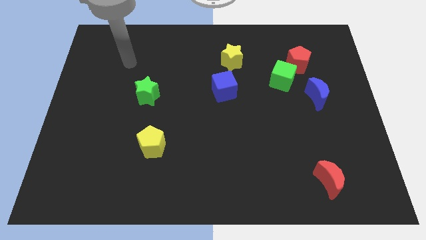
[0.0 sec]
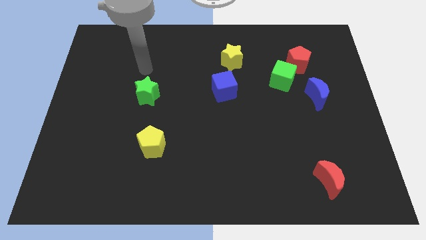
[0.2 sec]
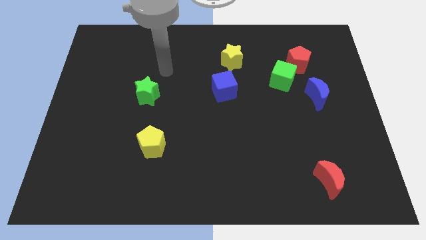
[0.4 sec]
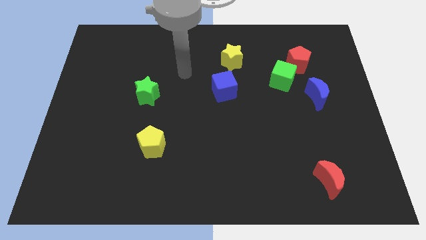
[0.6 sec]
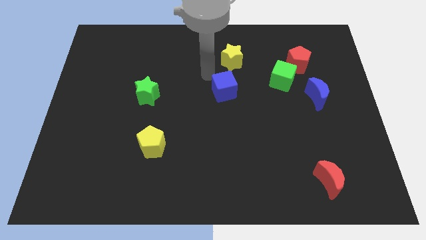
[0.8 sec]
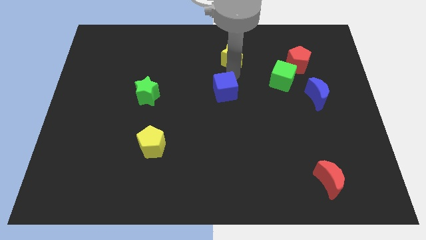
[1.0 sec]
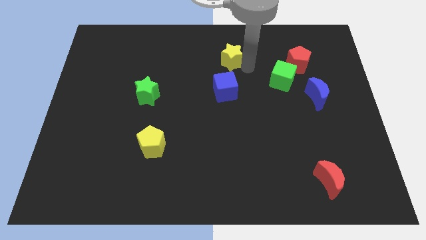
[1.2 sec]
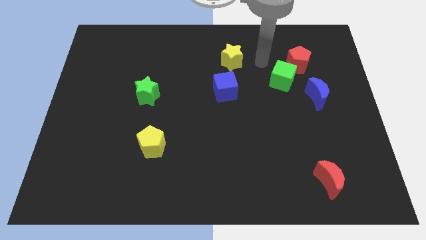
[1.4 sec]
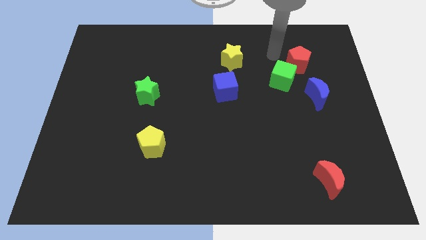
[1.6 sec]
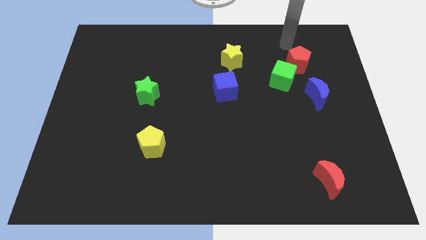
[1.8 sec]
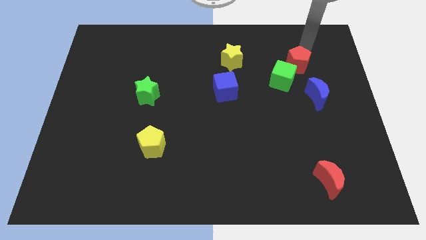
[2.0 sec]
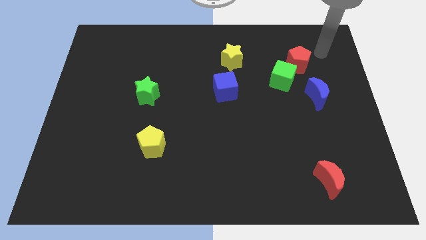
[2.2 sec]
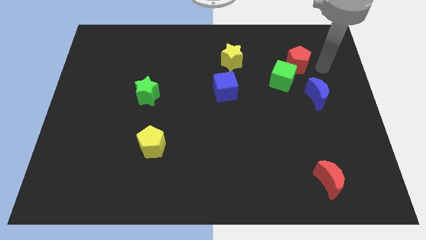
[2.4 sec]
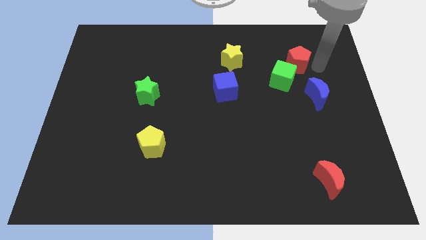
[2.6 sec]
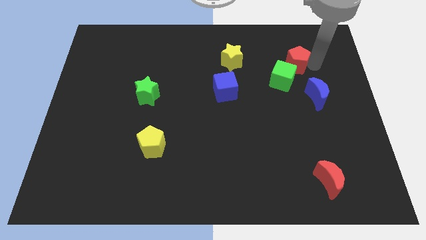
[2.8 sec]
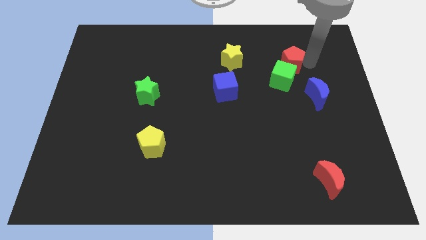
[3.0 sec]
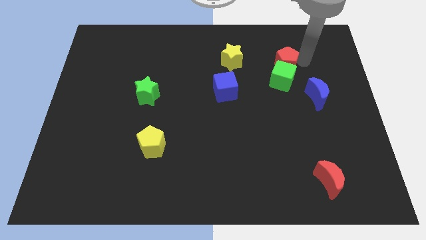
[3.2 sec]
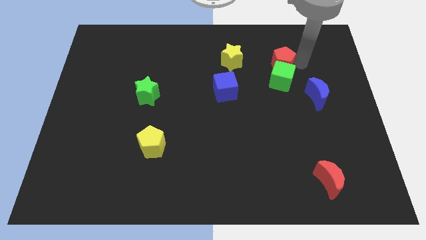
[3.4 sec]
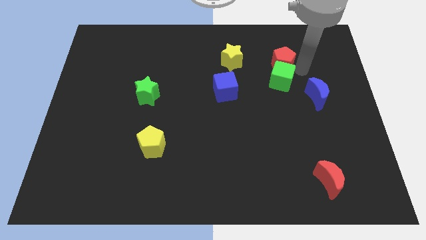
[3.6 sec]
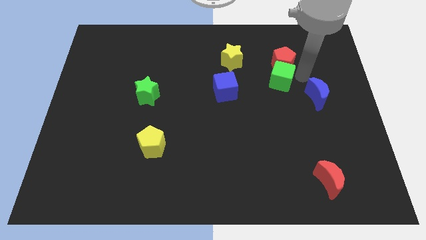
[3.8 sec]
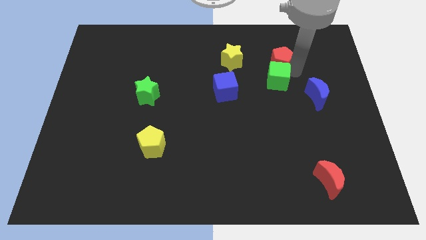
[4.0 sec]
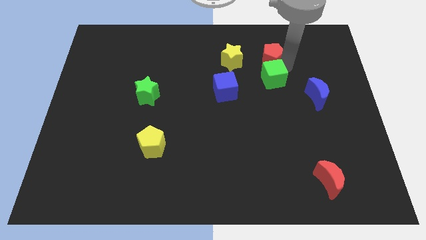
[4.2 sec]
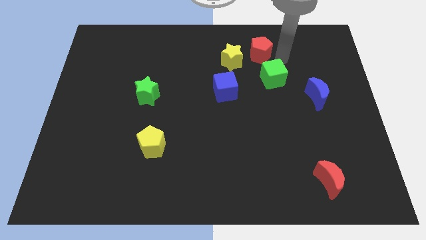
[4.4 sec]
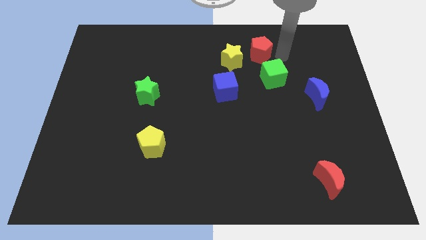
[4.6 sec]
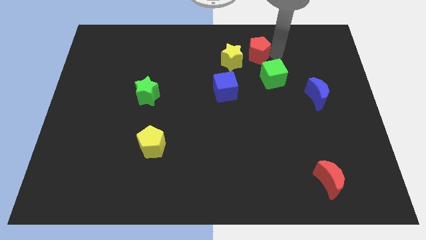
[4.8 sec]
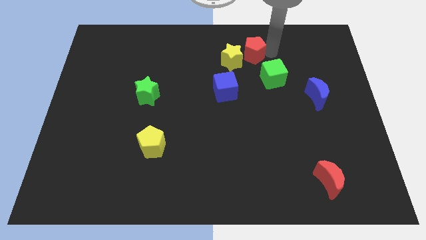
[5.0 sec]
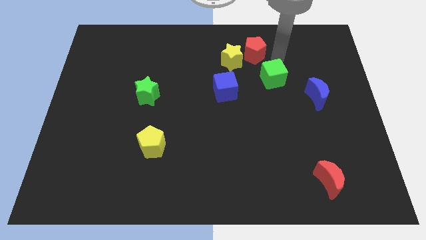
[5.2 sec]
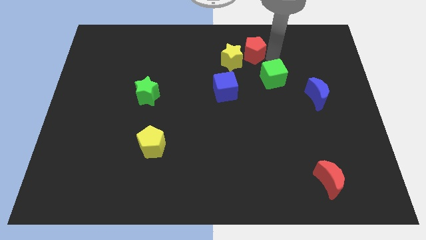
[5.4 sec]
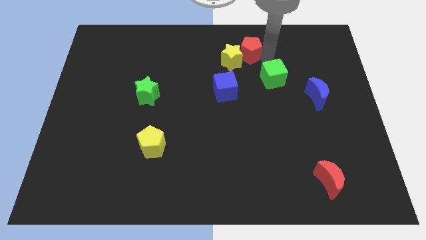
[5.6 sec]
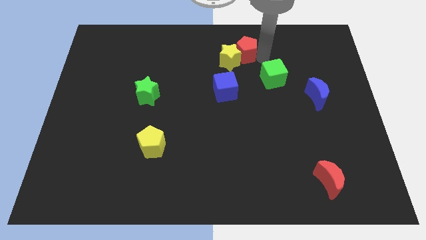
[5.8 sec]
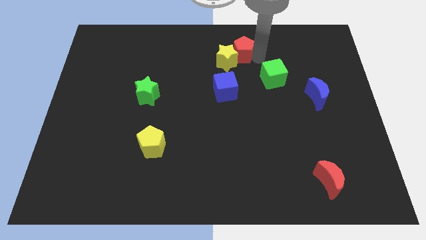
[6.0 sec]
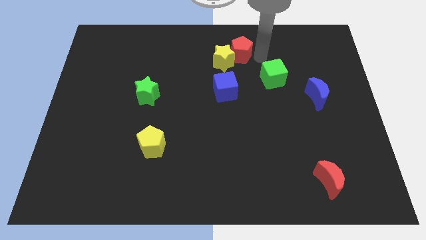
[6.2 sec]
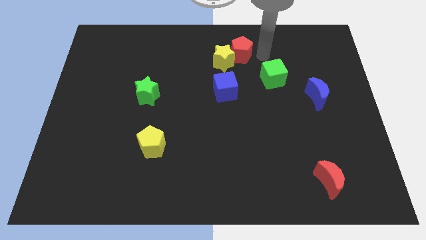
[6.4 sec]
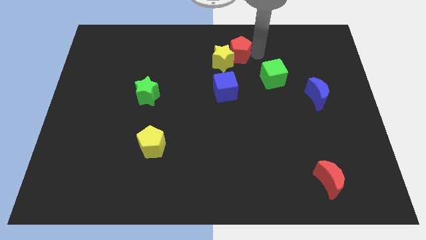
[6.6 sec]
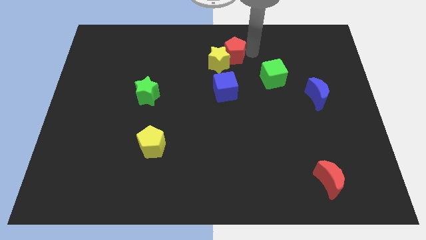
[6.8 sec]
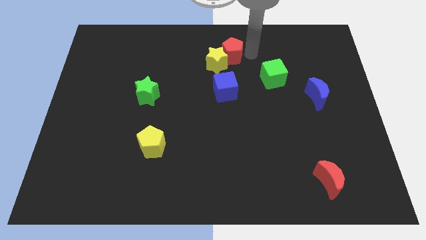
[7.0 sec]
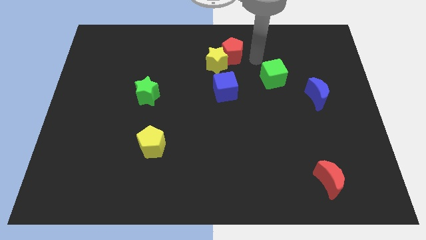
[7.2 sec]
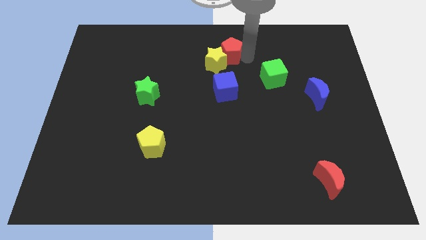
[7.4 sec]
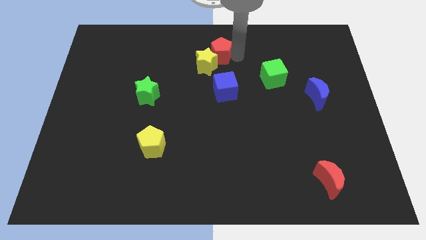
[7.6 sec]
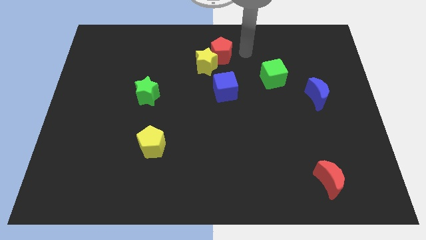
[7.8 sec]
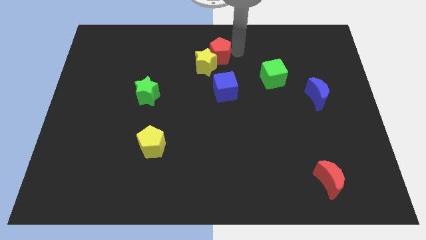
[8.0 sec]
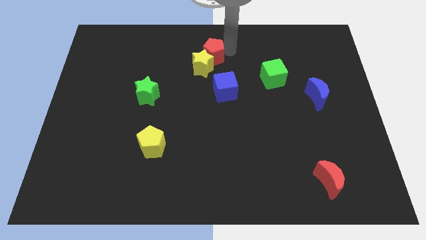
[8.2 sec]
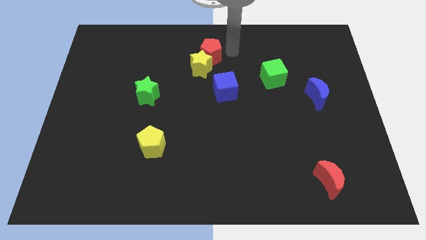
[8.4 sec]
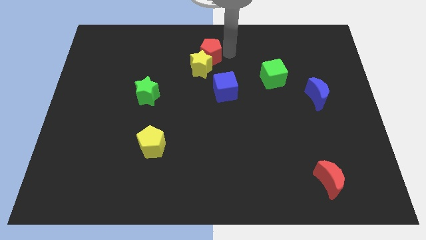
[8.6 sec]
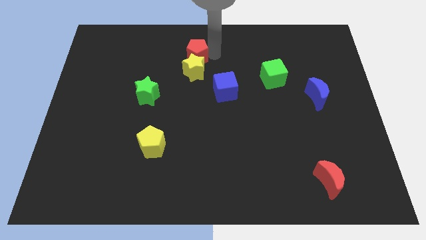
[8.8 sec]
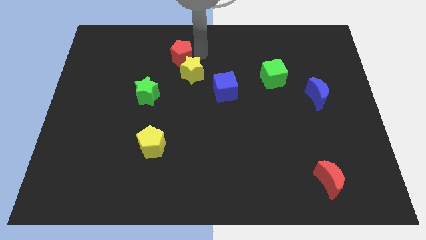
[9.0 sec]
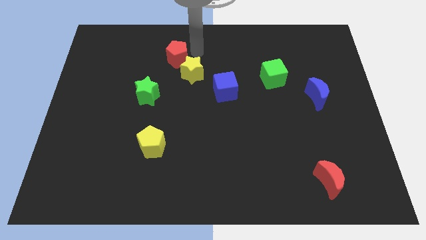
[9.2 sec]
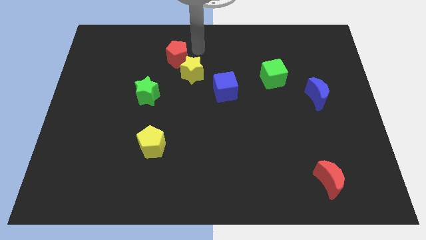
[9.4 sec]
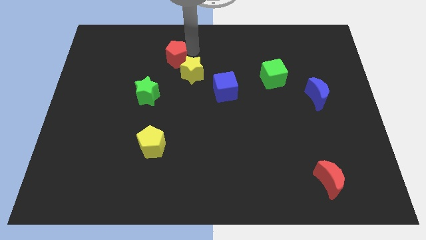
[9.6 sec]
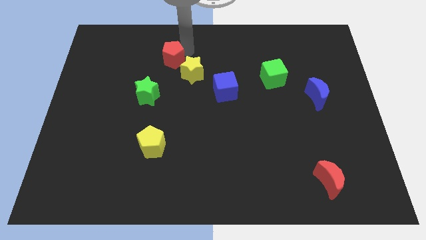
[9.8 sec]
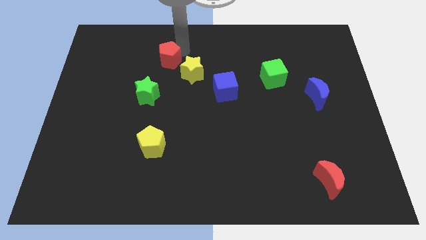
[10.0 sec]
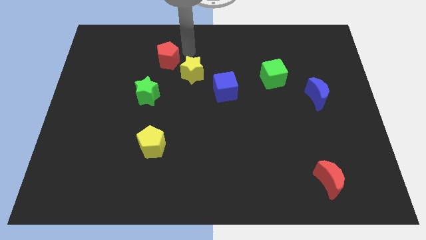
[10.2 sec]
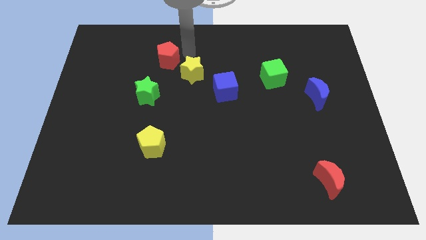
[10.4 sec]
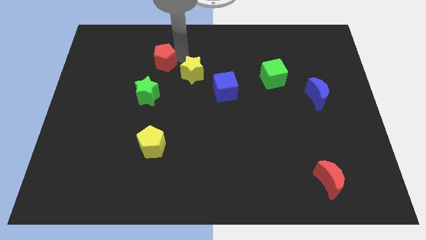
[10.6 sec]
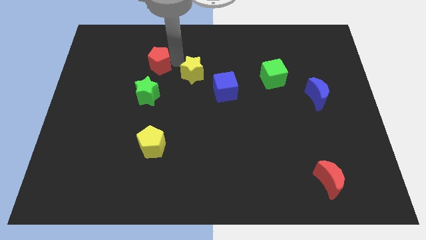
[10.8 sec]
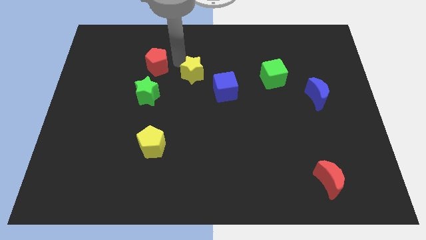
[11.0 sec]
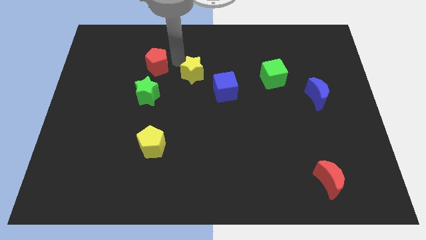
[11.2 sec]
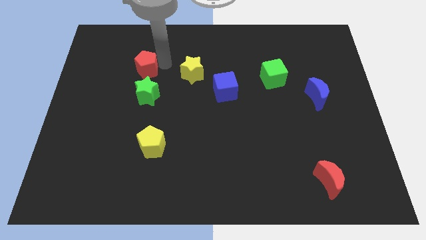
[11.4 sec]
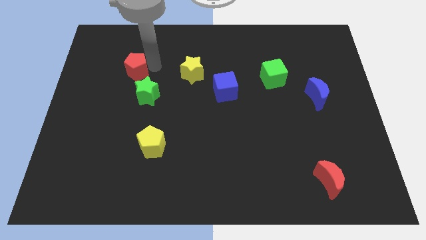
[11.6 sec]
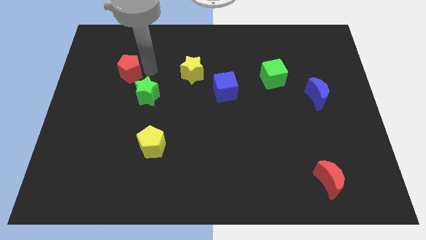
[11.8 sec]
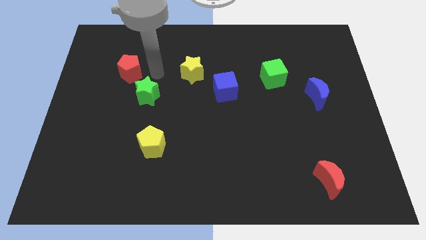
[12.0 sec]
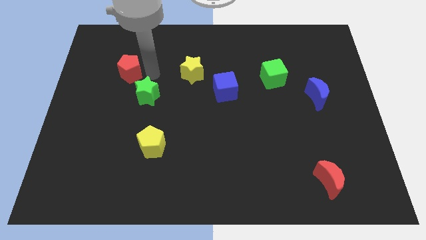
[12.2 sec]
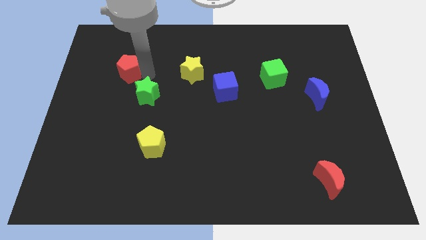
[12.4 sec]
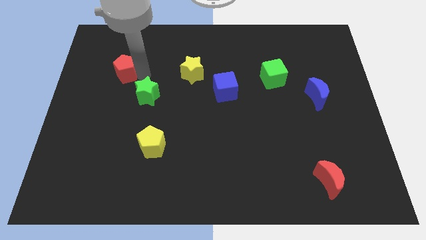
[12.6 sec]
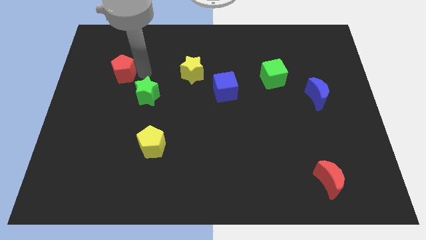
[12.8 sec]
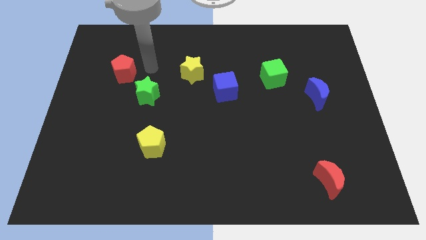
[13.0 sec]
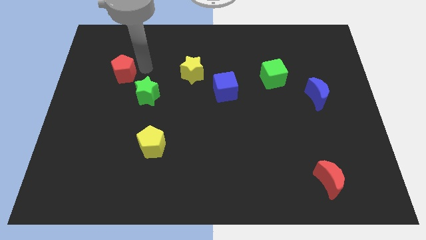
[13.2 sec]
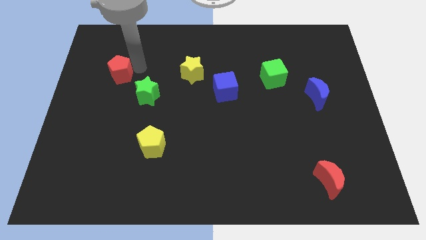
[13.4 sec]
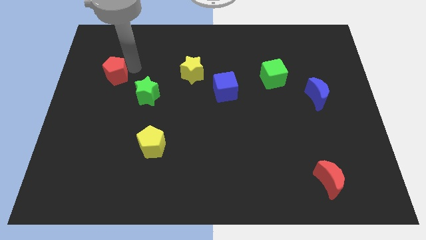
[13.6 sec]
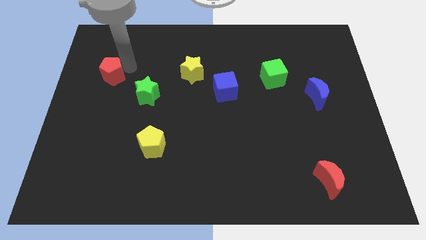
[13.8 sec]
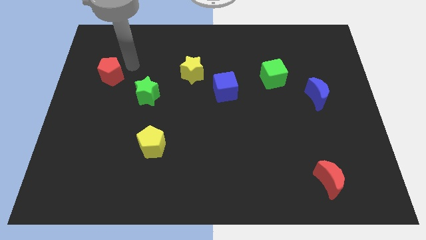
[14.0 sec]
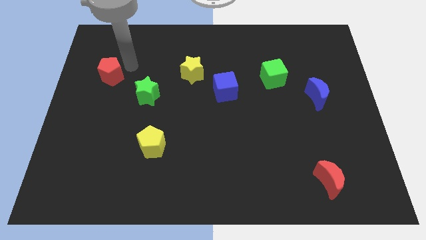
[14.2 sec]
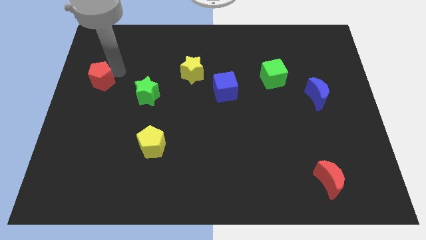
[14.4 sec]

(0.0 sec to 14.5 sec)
put the red pentagon to the center left
